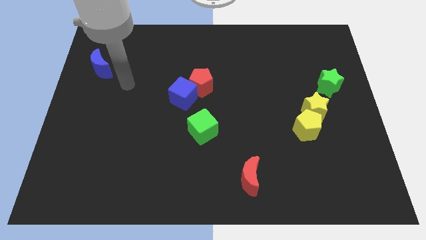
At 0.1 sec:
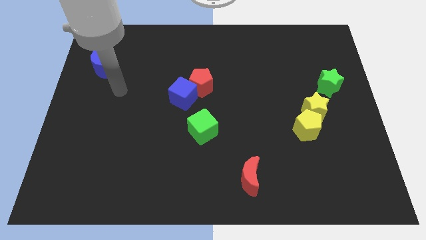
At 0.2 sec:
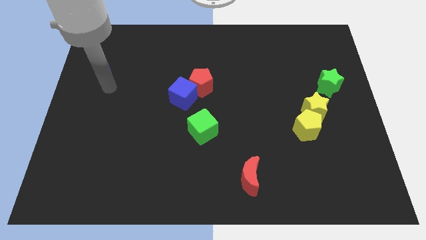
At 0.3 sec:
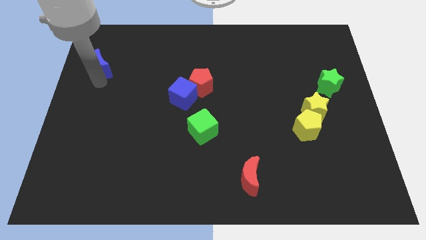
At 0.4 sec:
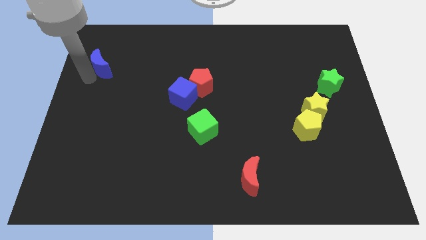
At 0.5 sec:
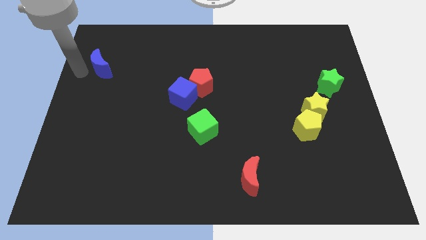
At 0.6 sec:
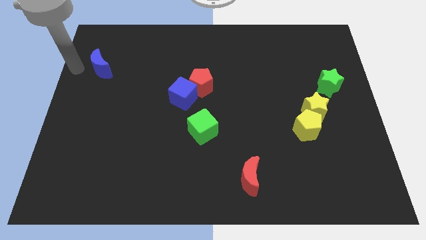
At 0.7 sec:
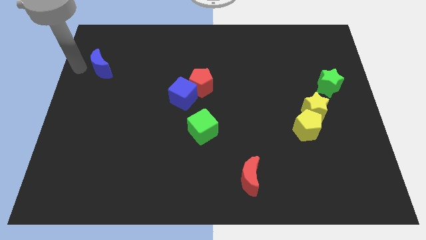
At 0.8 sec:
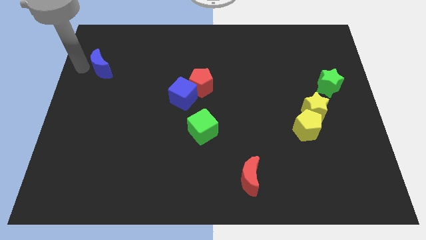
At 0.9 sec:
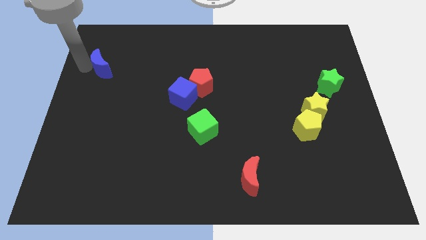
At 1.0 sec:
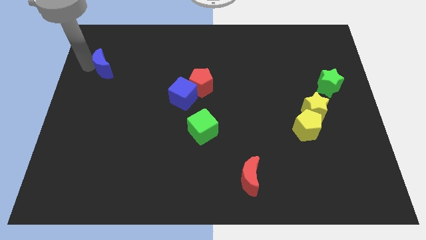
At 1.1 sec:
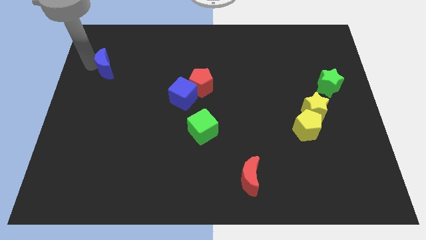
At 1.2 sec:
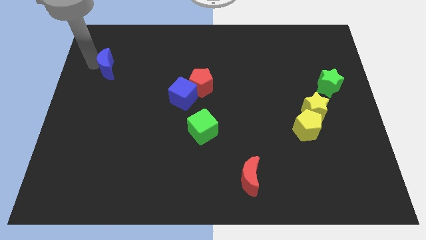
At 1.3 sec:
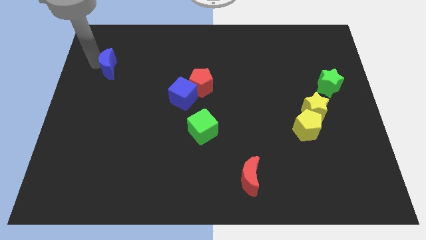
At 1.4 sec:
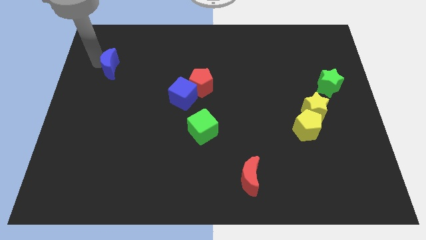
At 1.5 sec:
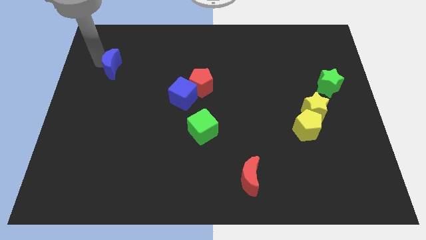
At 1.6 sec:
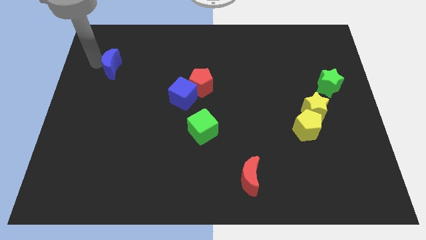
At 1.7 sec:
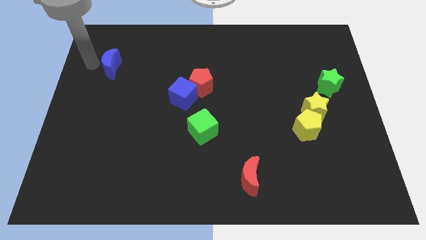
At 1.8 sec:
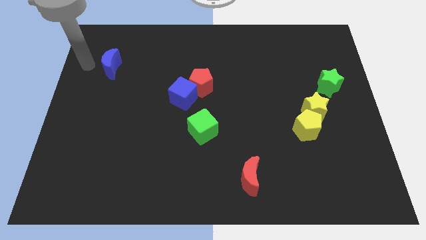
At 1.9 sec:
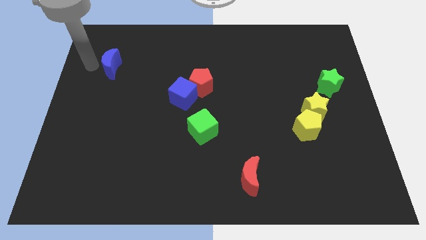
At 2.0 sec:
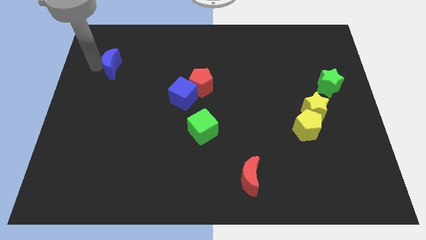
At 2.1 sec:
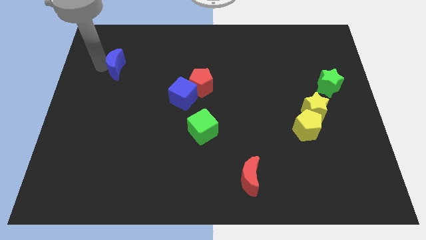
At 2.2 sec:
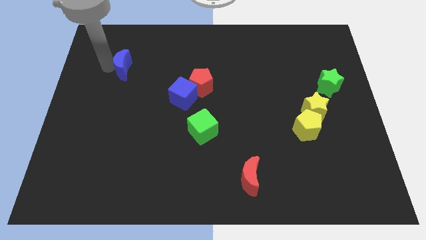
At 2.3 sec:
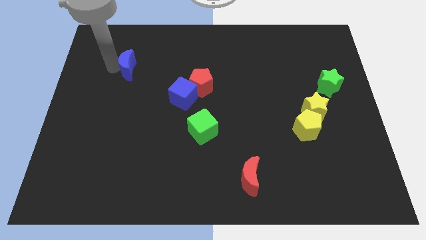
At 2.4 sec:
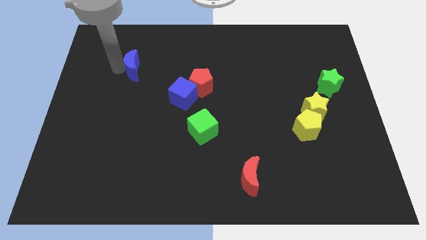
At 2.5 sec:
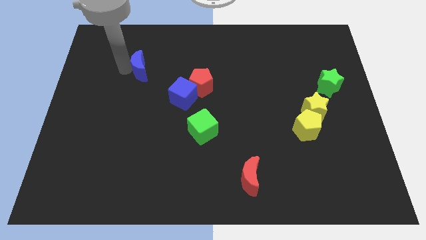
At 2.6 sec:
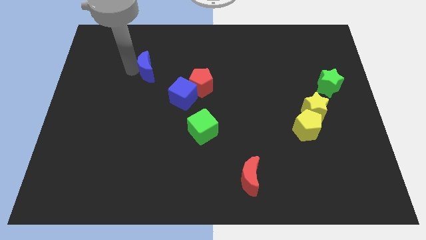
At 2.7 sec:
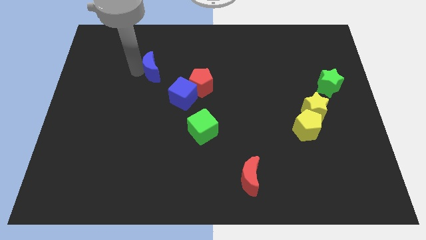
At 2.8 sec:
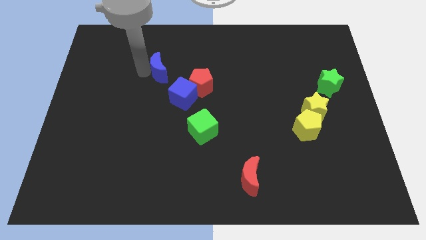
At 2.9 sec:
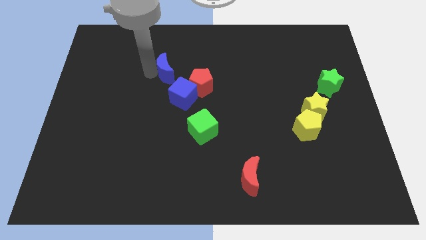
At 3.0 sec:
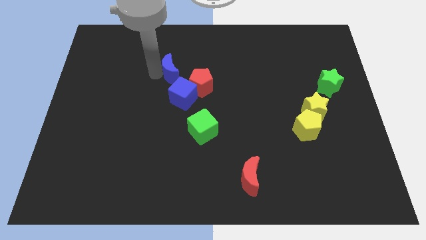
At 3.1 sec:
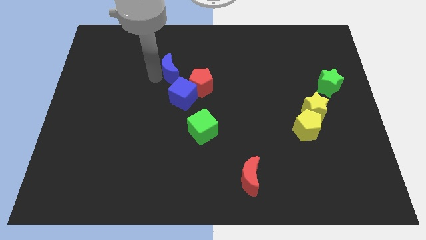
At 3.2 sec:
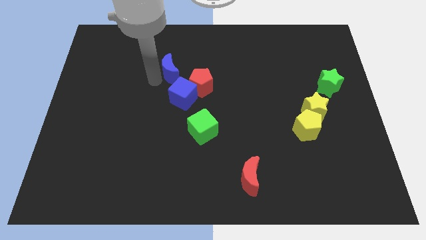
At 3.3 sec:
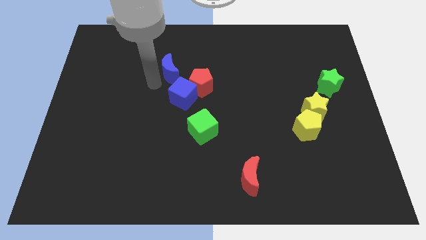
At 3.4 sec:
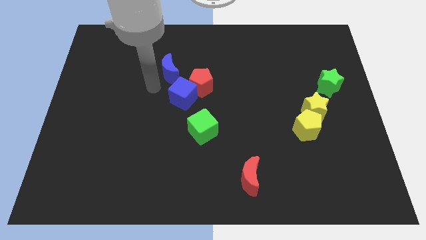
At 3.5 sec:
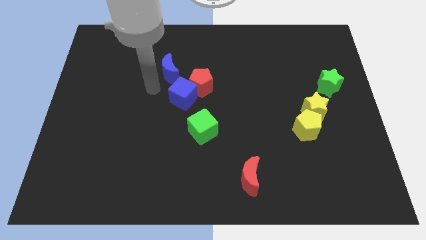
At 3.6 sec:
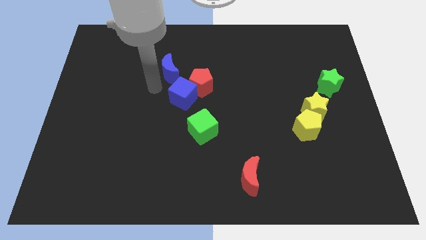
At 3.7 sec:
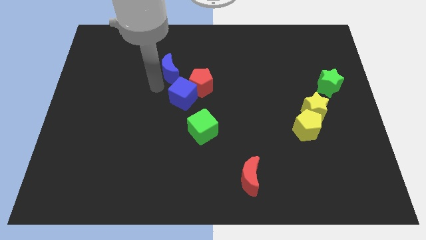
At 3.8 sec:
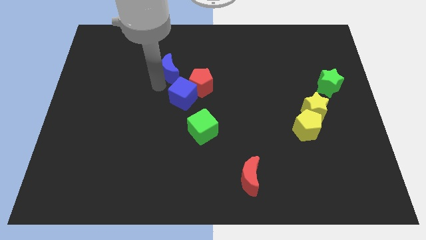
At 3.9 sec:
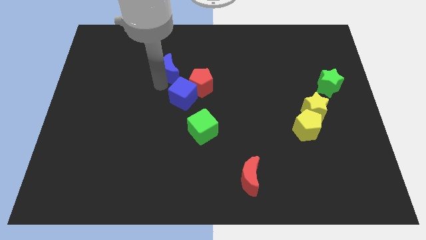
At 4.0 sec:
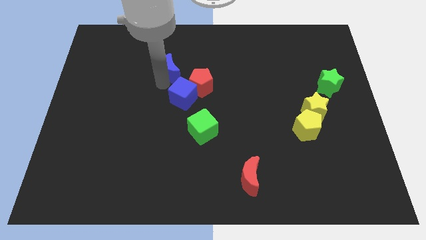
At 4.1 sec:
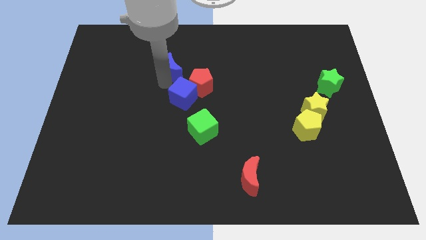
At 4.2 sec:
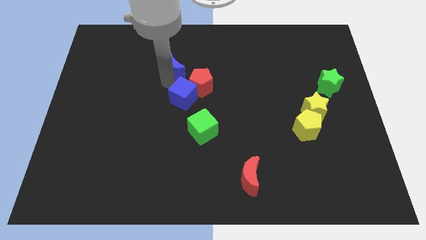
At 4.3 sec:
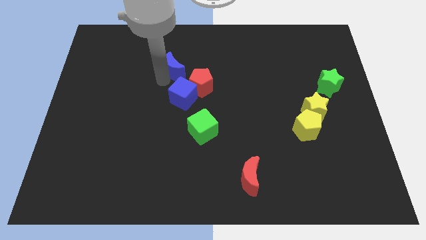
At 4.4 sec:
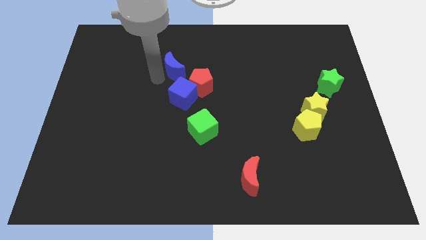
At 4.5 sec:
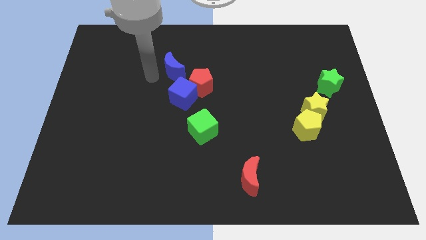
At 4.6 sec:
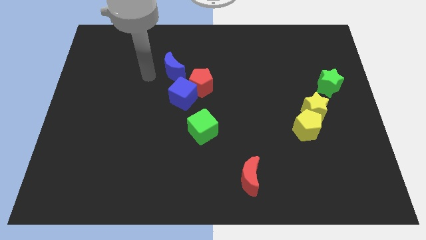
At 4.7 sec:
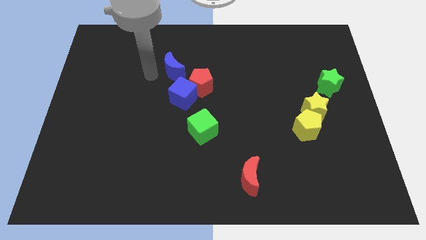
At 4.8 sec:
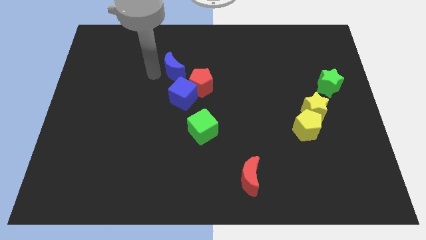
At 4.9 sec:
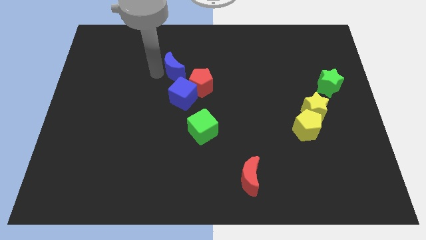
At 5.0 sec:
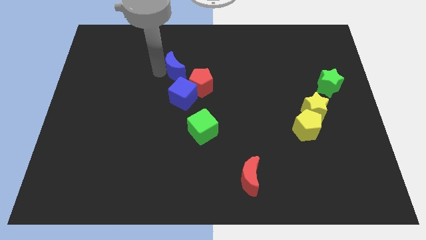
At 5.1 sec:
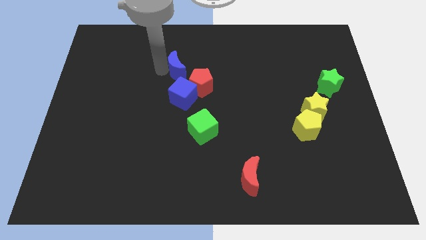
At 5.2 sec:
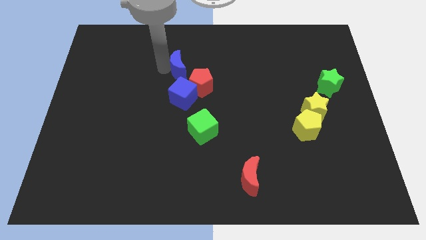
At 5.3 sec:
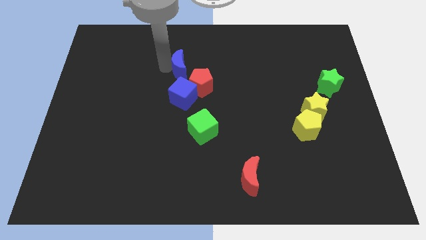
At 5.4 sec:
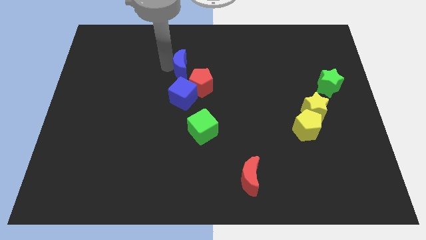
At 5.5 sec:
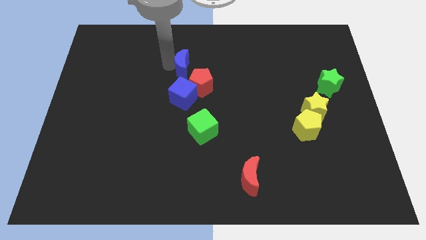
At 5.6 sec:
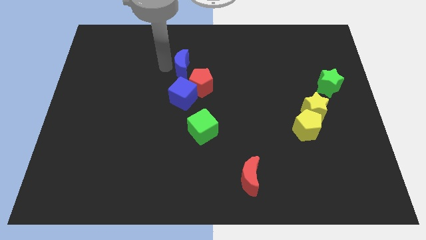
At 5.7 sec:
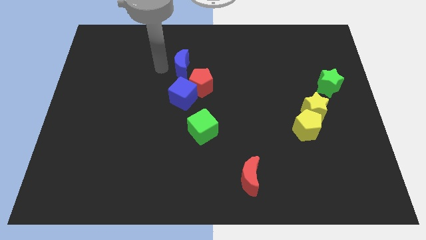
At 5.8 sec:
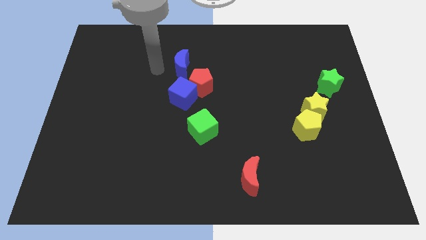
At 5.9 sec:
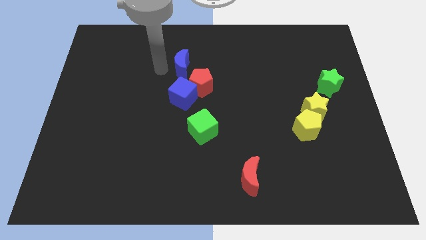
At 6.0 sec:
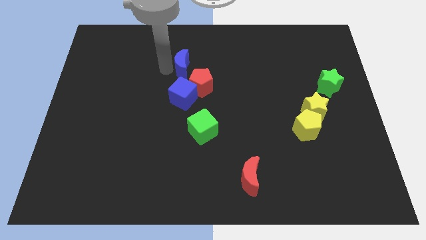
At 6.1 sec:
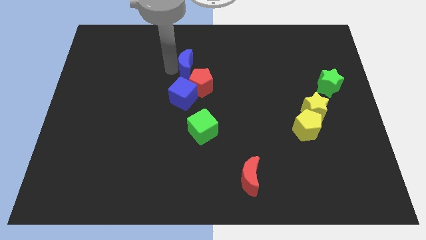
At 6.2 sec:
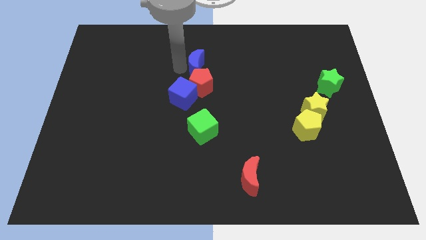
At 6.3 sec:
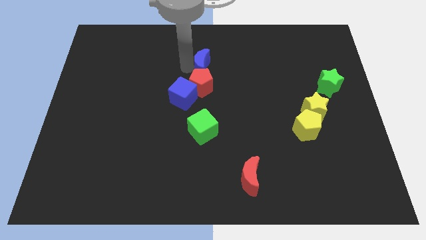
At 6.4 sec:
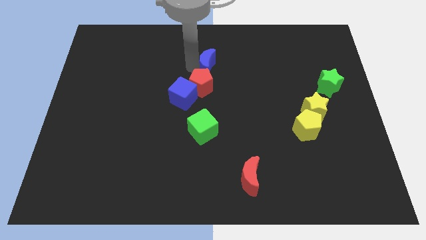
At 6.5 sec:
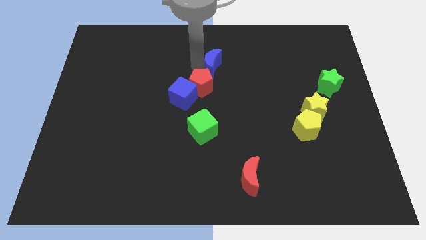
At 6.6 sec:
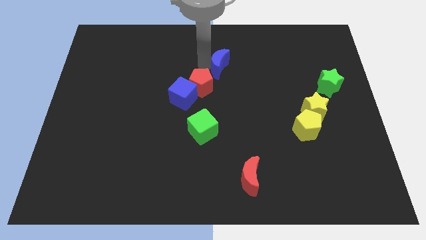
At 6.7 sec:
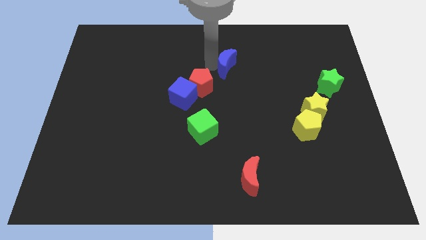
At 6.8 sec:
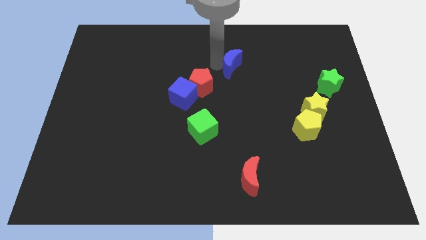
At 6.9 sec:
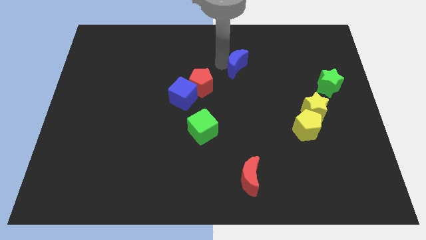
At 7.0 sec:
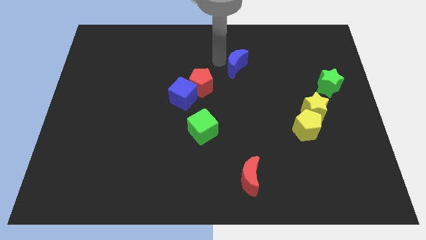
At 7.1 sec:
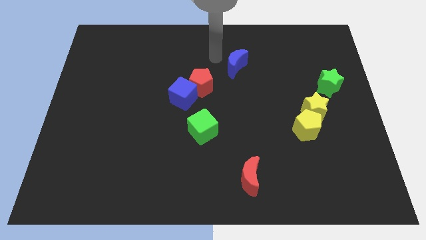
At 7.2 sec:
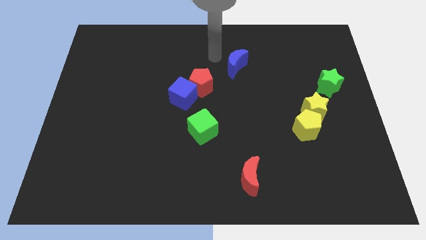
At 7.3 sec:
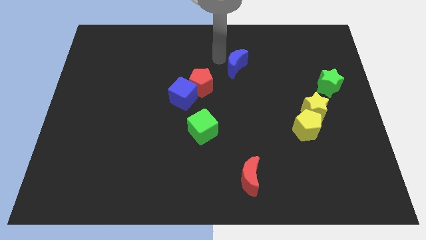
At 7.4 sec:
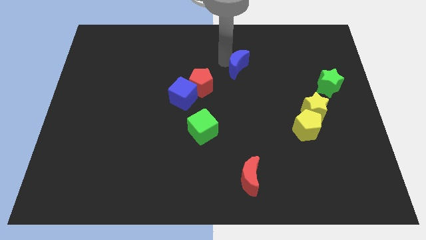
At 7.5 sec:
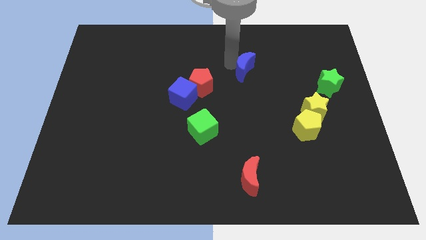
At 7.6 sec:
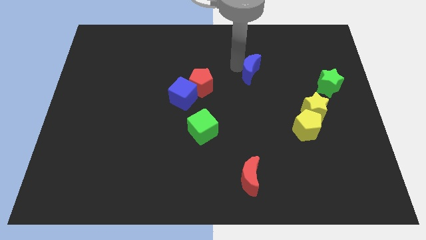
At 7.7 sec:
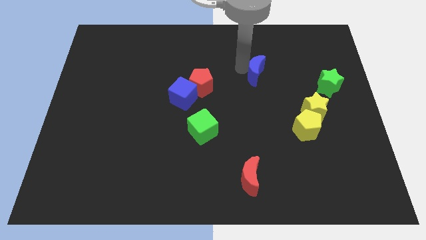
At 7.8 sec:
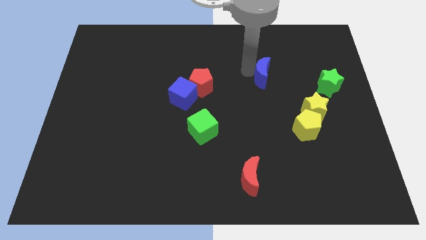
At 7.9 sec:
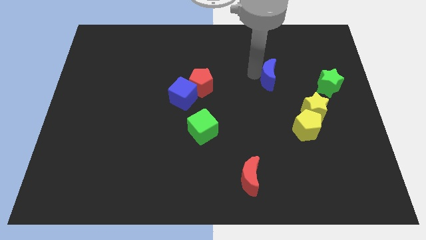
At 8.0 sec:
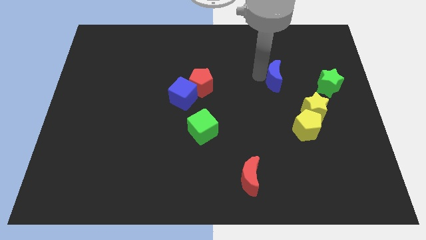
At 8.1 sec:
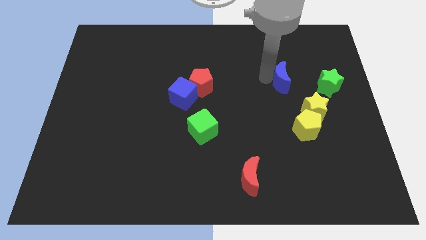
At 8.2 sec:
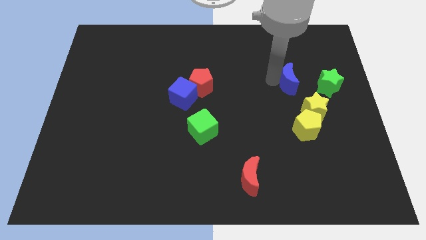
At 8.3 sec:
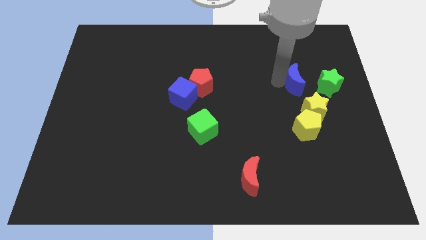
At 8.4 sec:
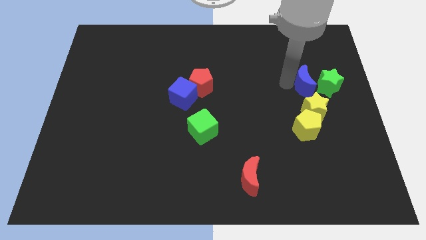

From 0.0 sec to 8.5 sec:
push the blue moon next to the green star
